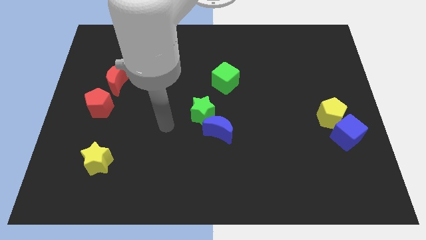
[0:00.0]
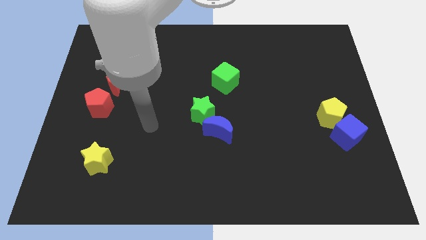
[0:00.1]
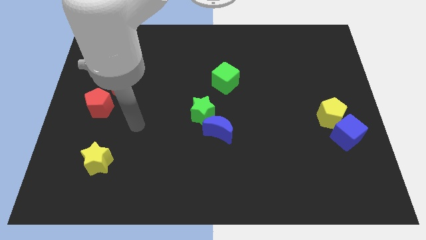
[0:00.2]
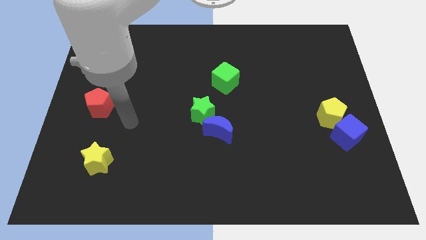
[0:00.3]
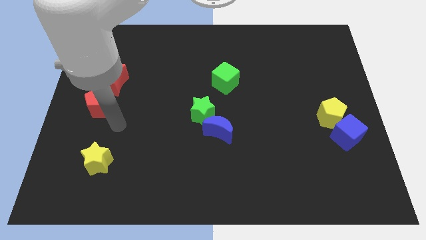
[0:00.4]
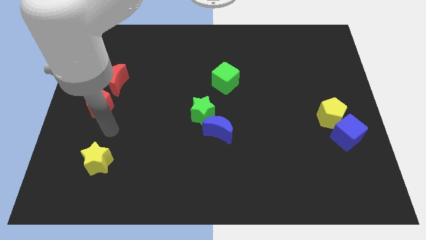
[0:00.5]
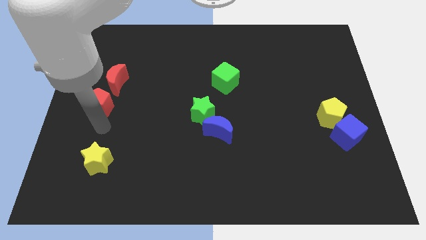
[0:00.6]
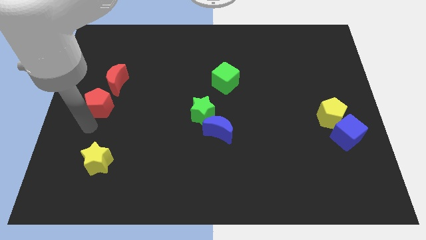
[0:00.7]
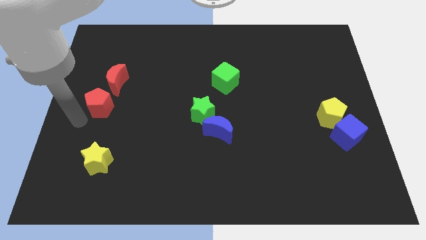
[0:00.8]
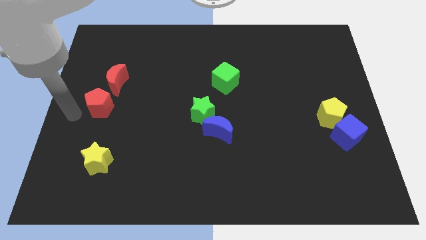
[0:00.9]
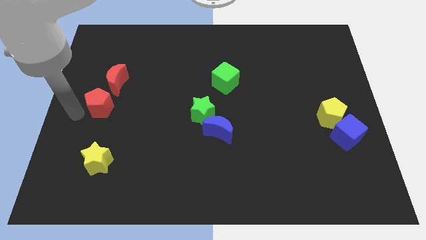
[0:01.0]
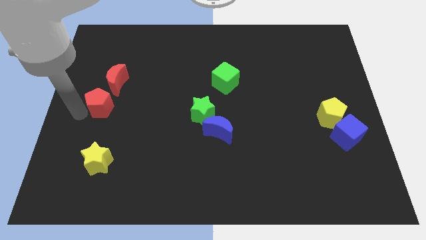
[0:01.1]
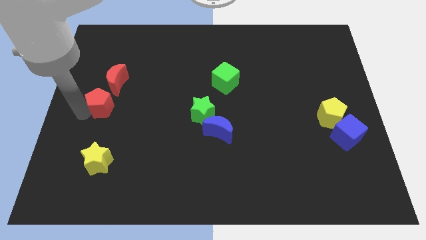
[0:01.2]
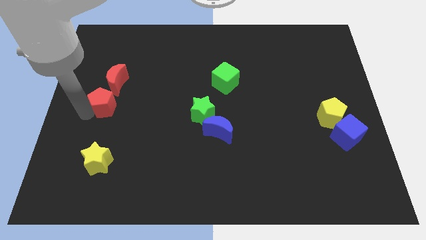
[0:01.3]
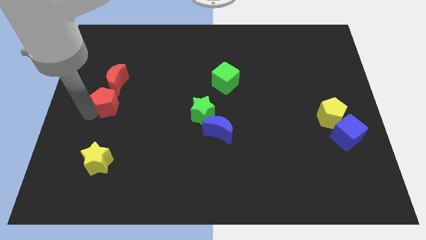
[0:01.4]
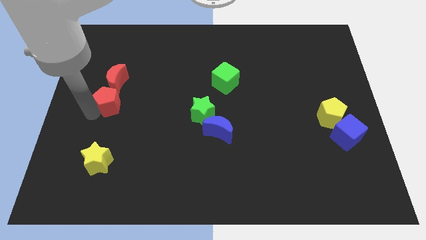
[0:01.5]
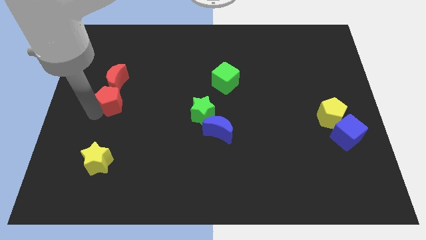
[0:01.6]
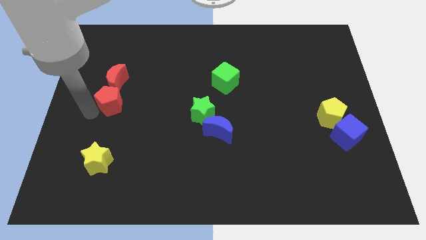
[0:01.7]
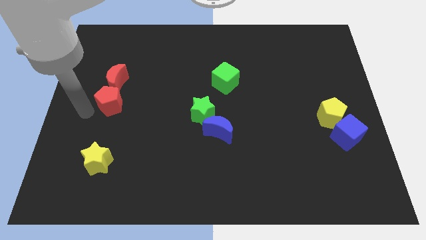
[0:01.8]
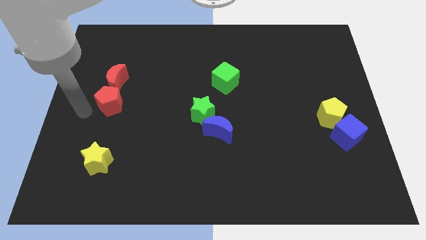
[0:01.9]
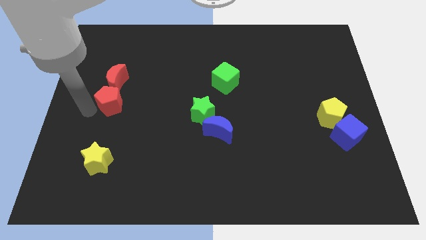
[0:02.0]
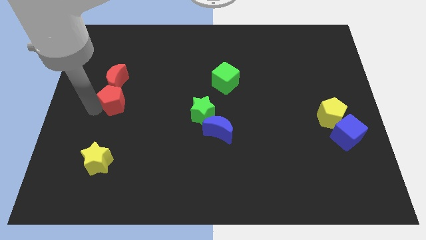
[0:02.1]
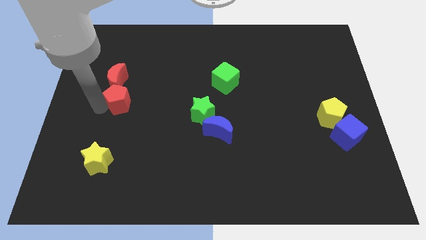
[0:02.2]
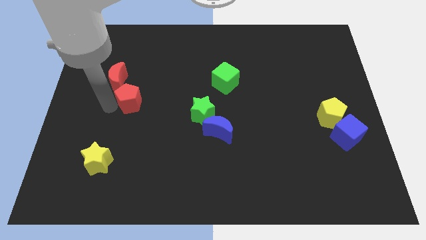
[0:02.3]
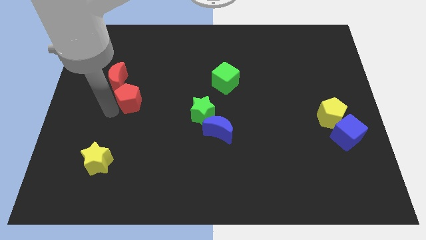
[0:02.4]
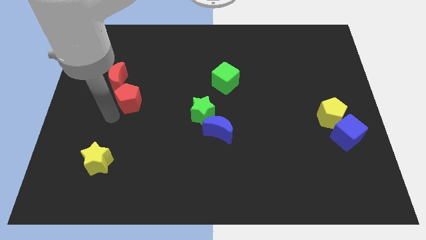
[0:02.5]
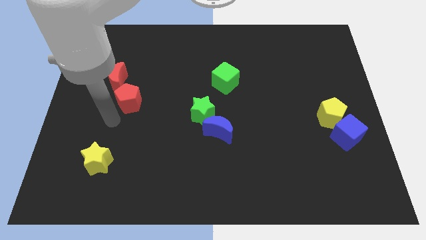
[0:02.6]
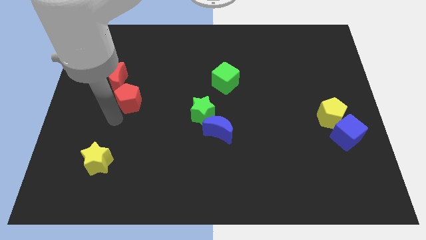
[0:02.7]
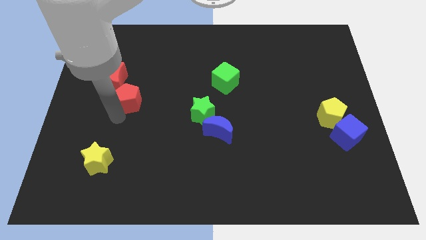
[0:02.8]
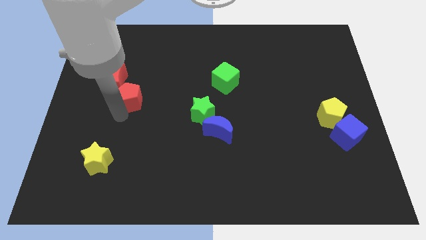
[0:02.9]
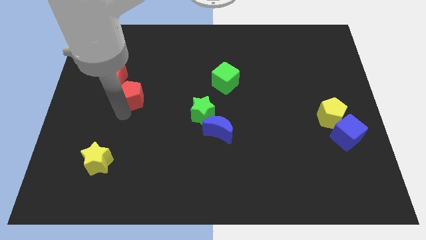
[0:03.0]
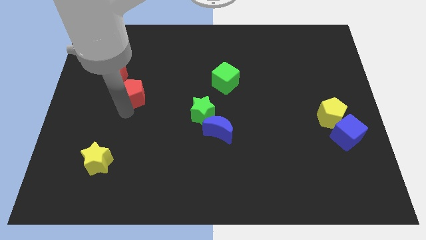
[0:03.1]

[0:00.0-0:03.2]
move the red pentagon slightly diagonally upwards and right

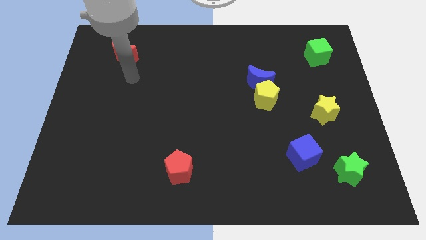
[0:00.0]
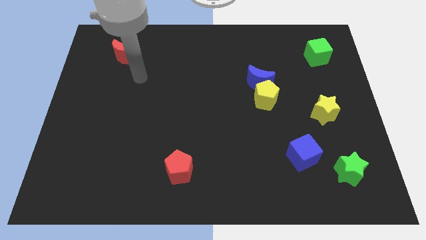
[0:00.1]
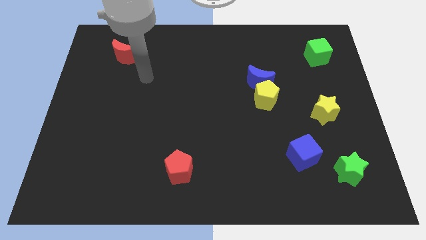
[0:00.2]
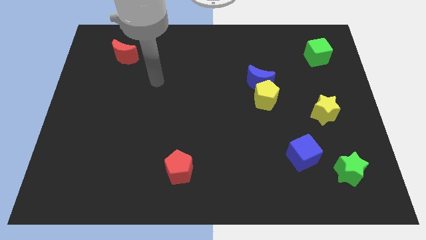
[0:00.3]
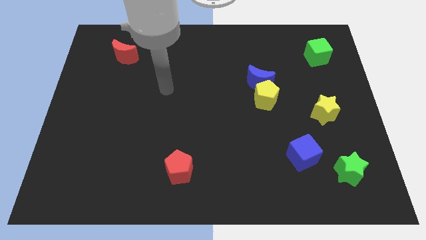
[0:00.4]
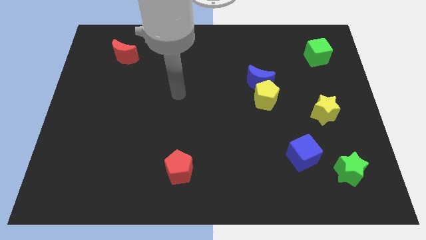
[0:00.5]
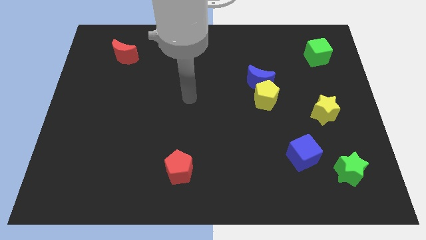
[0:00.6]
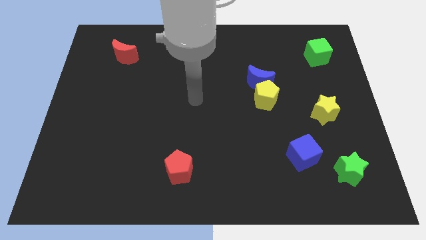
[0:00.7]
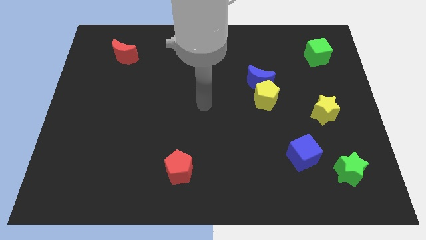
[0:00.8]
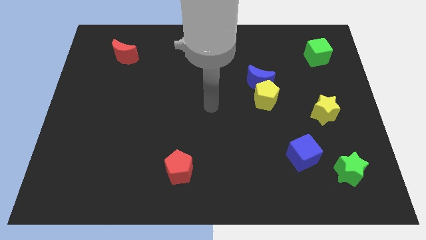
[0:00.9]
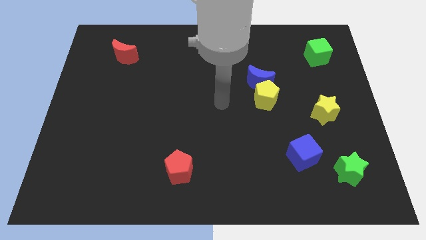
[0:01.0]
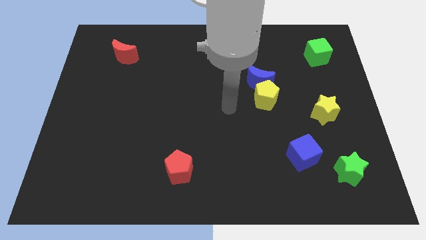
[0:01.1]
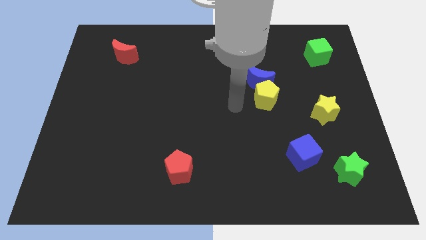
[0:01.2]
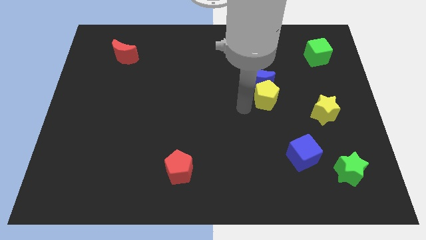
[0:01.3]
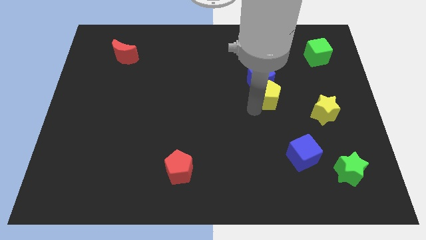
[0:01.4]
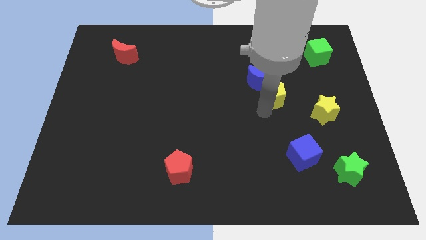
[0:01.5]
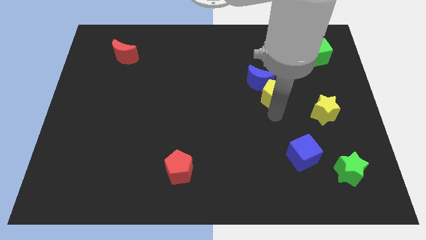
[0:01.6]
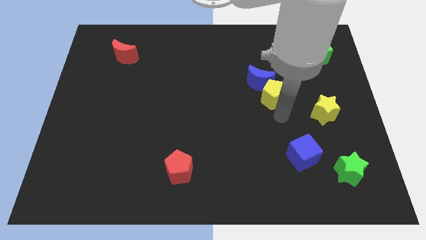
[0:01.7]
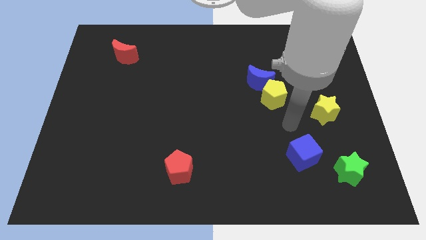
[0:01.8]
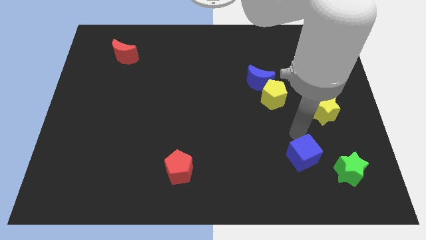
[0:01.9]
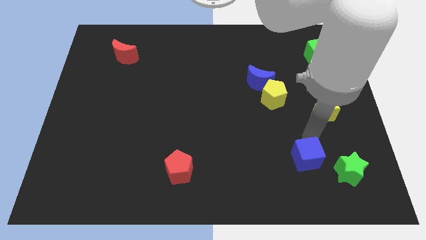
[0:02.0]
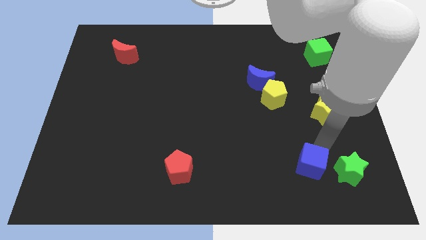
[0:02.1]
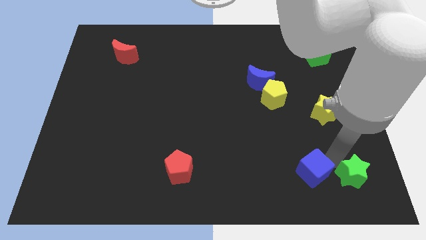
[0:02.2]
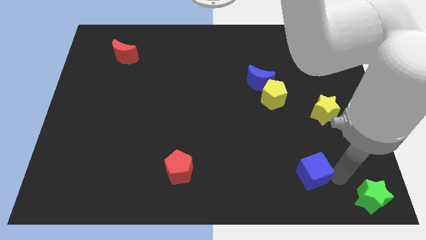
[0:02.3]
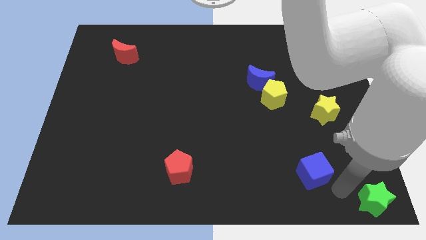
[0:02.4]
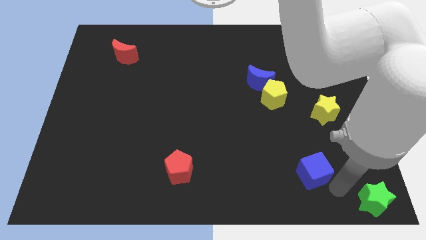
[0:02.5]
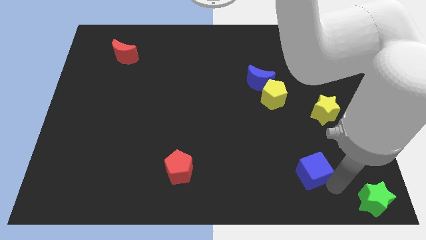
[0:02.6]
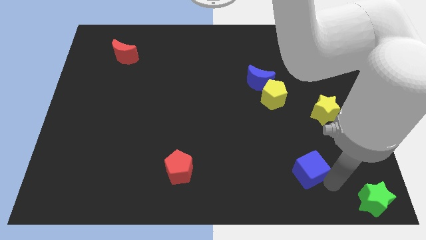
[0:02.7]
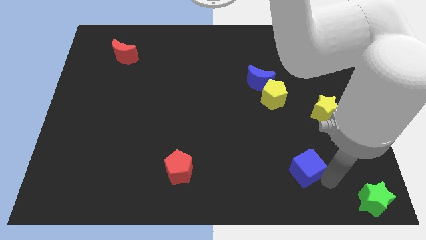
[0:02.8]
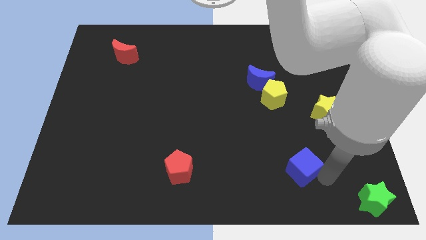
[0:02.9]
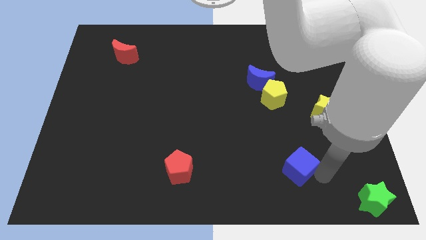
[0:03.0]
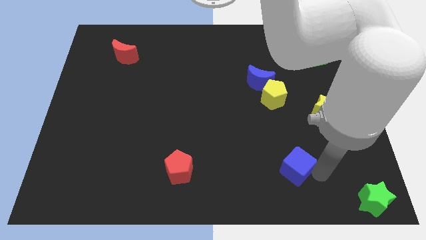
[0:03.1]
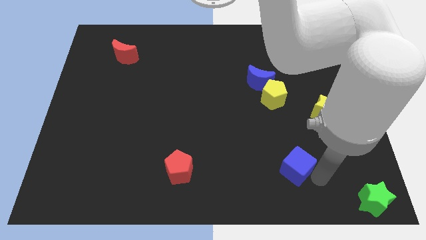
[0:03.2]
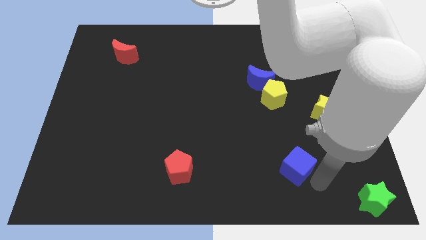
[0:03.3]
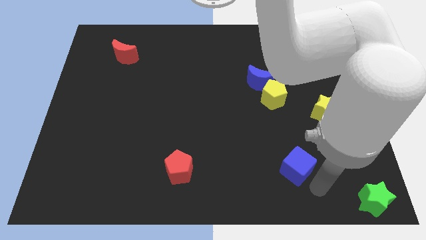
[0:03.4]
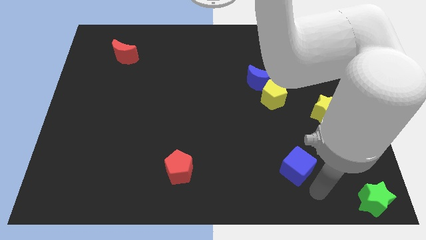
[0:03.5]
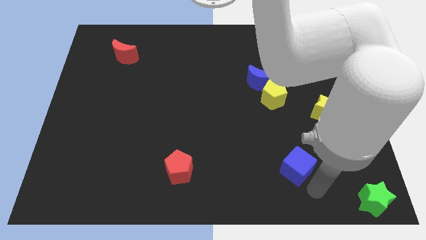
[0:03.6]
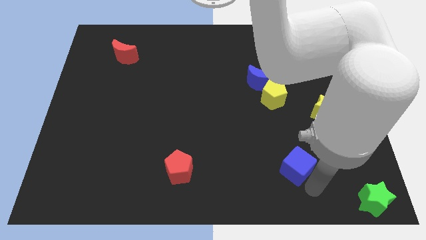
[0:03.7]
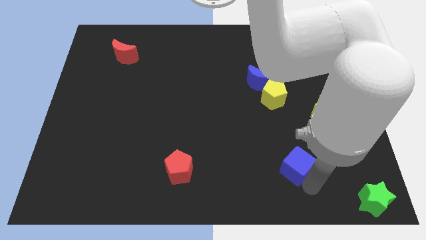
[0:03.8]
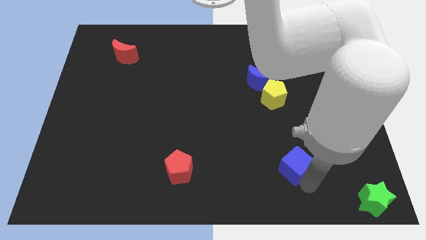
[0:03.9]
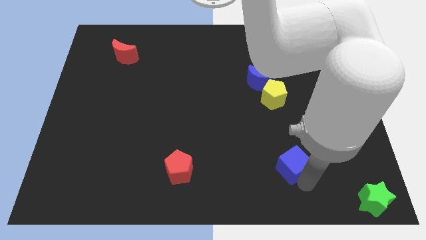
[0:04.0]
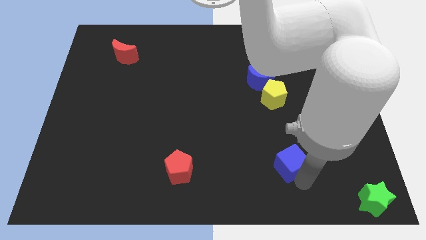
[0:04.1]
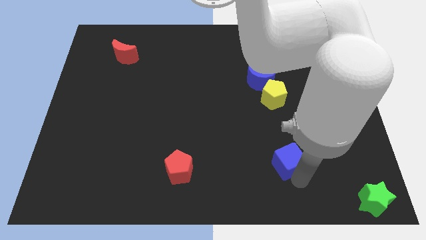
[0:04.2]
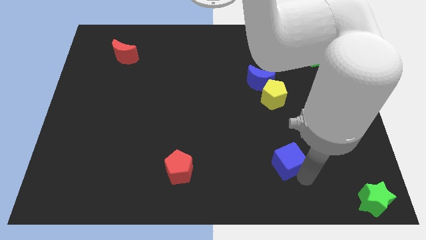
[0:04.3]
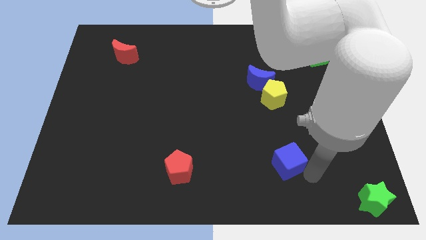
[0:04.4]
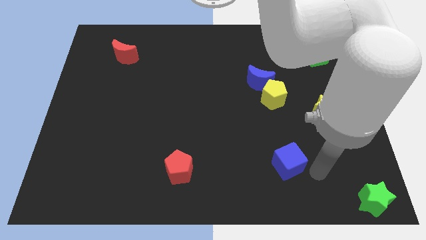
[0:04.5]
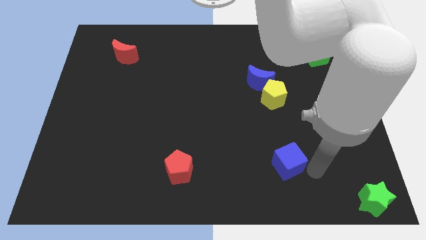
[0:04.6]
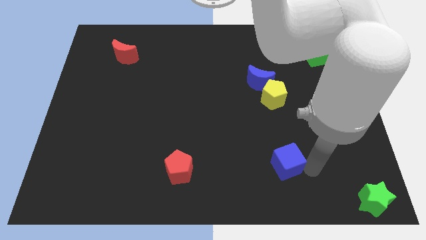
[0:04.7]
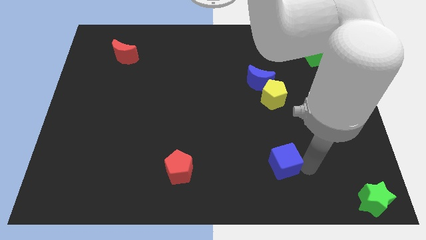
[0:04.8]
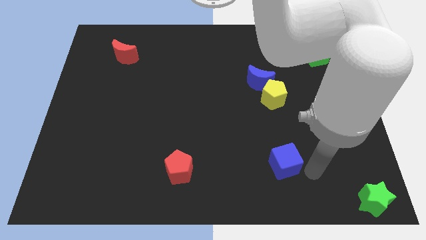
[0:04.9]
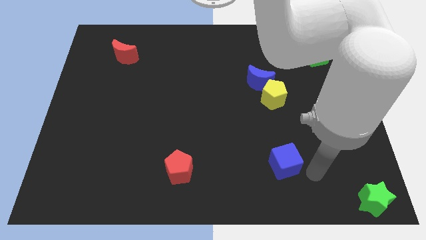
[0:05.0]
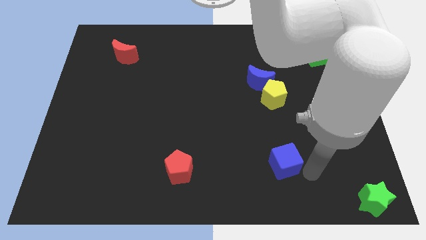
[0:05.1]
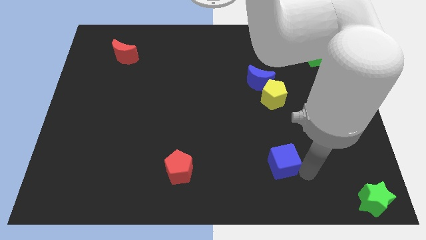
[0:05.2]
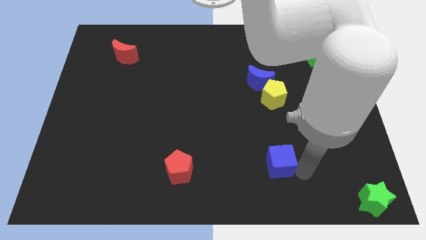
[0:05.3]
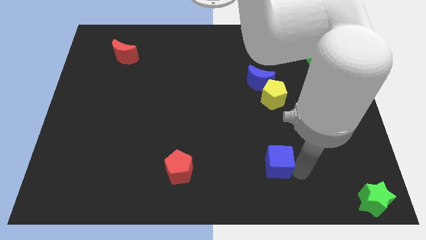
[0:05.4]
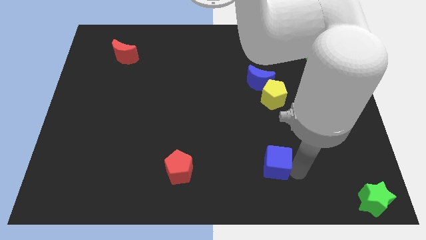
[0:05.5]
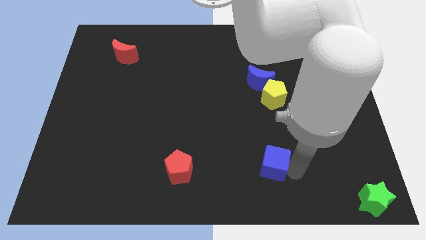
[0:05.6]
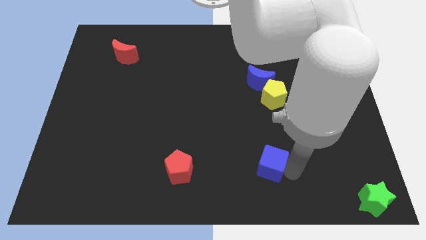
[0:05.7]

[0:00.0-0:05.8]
push the blue cube left somewhat
